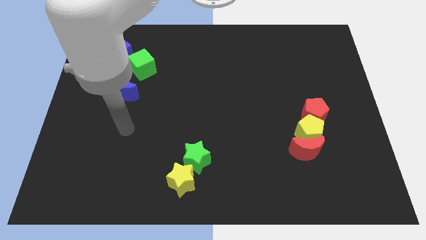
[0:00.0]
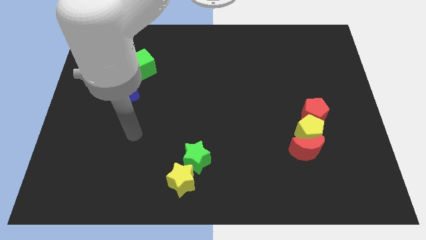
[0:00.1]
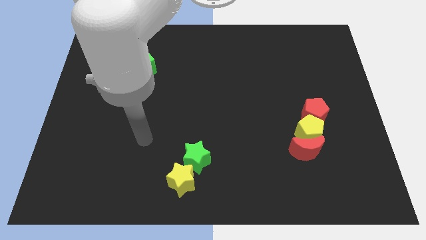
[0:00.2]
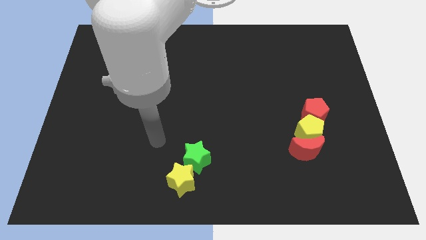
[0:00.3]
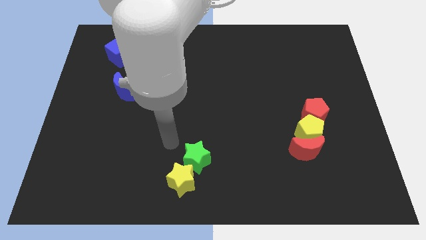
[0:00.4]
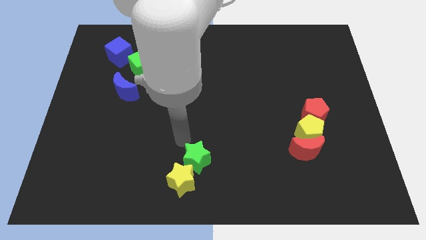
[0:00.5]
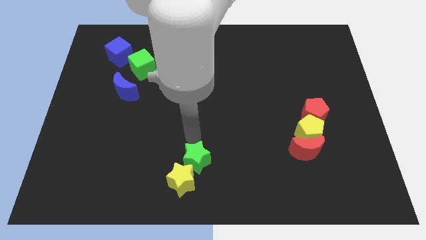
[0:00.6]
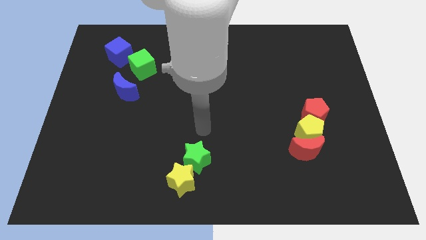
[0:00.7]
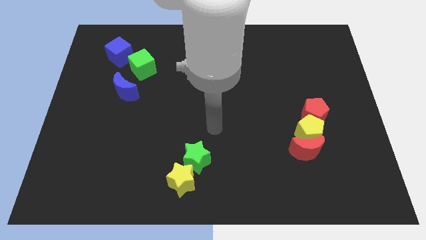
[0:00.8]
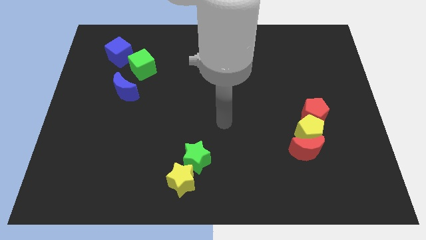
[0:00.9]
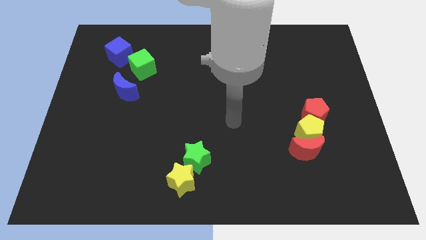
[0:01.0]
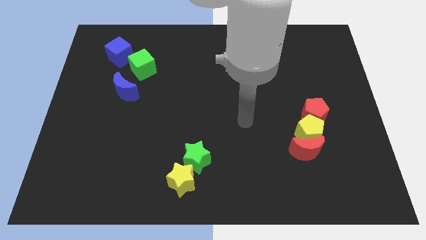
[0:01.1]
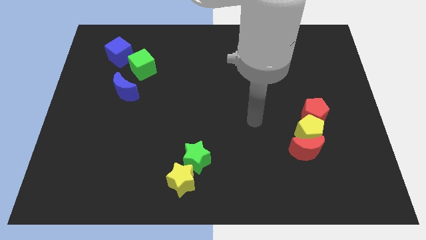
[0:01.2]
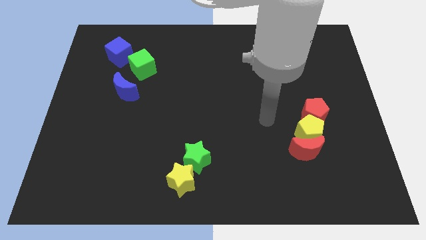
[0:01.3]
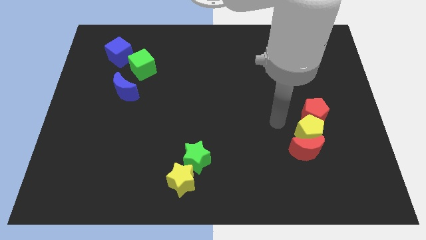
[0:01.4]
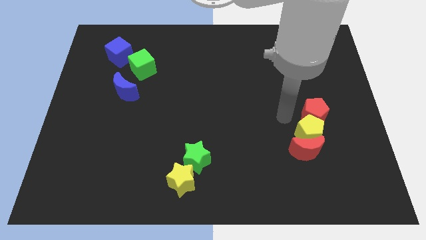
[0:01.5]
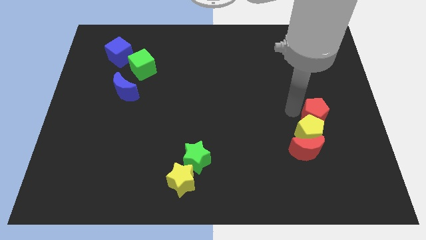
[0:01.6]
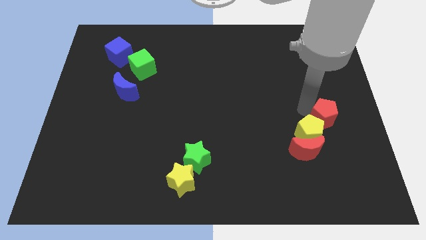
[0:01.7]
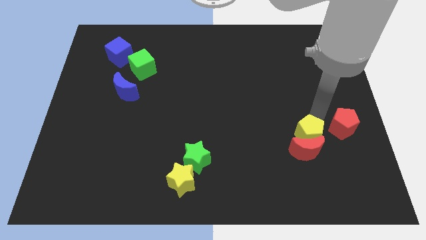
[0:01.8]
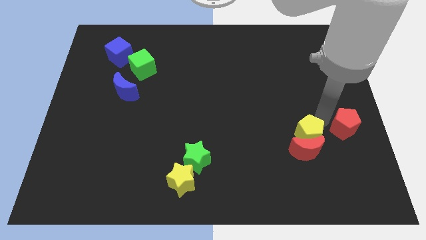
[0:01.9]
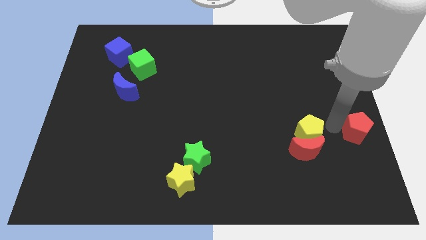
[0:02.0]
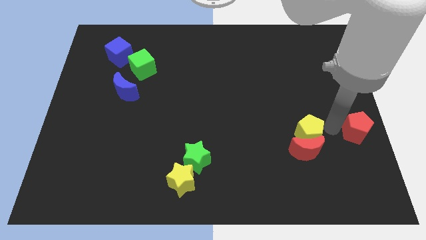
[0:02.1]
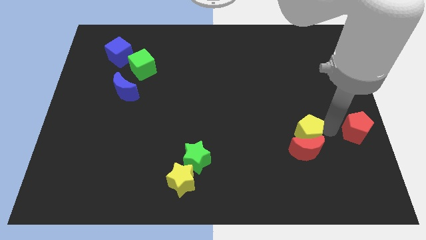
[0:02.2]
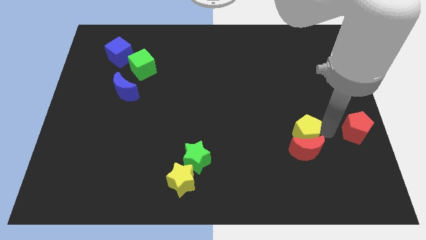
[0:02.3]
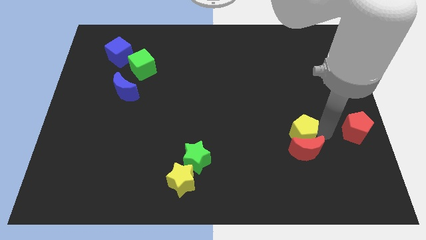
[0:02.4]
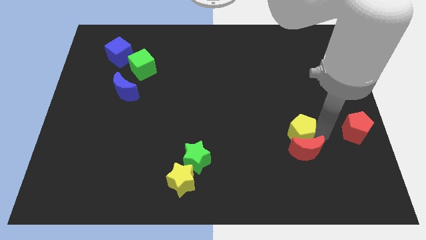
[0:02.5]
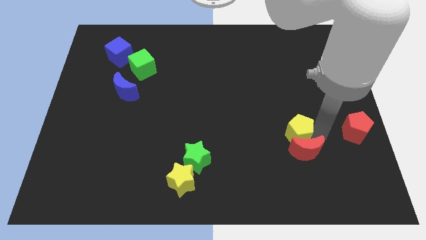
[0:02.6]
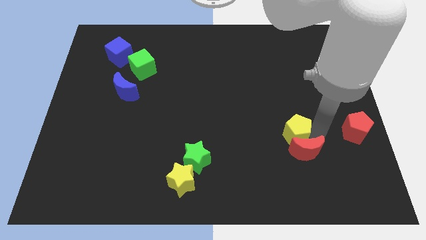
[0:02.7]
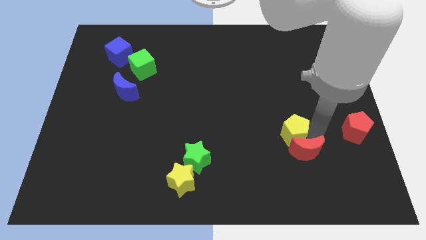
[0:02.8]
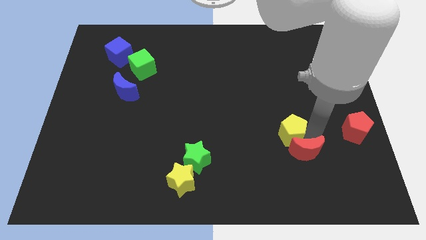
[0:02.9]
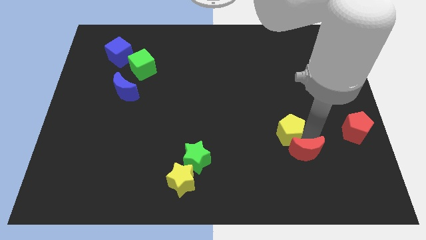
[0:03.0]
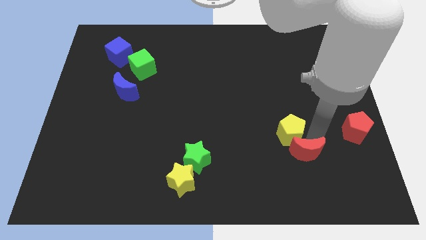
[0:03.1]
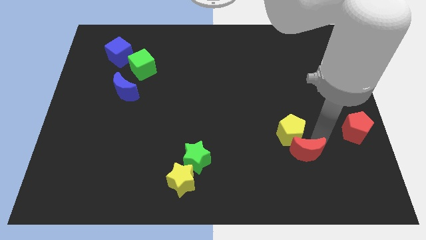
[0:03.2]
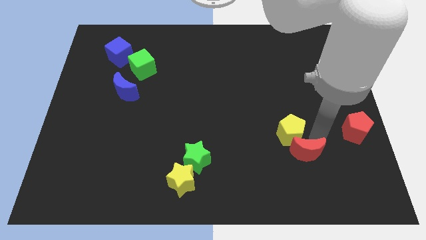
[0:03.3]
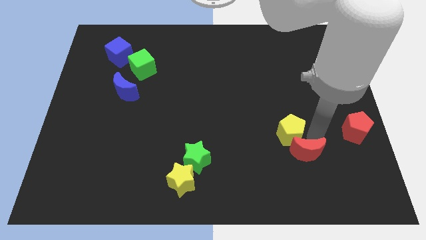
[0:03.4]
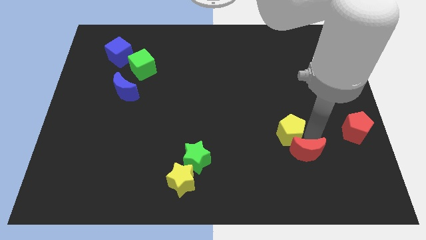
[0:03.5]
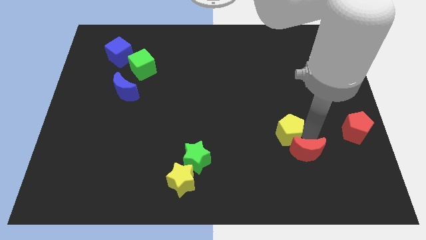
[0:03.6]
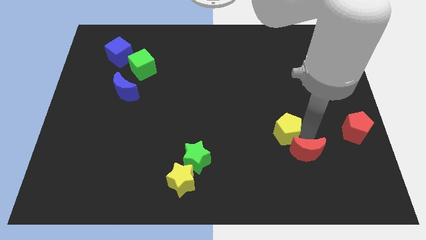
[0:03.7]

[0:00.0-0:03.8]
separate the yellow pentagon from the red moon and red pentagon

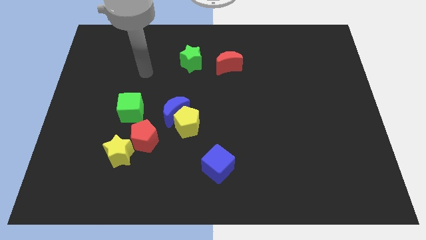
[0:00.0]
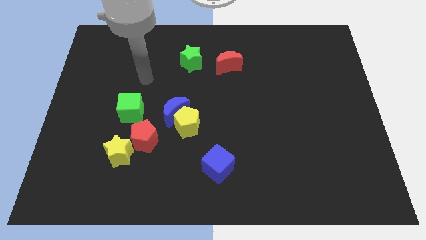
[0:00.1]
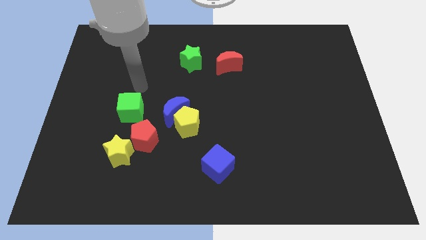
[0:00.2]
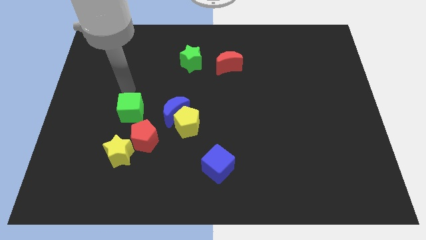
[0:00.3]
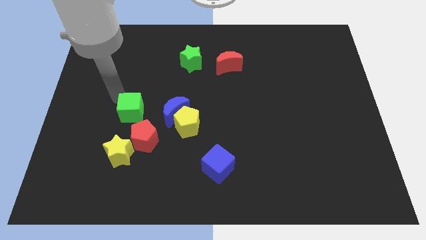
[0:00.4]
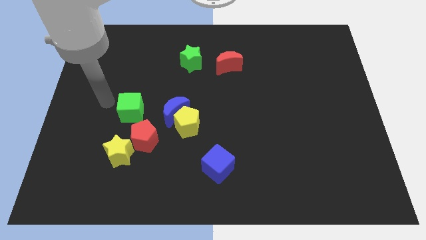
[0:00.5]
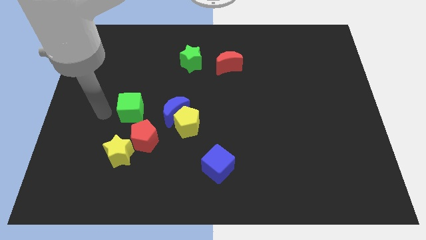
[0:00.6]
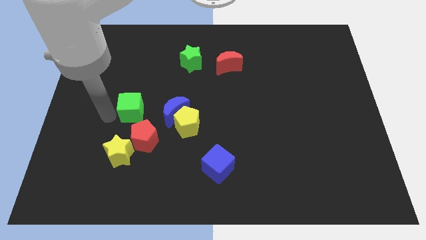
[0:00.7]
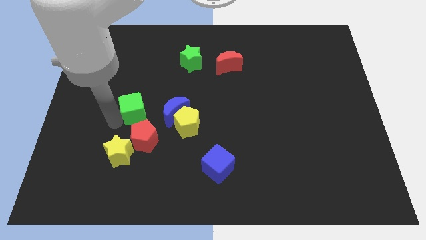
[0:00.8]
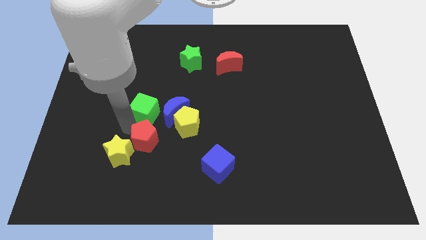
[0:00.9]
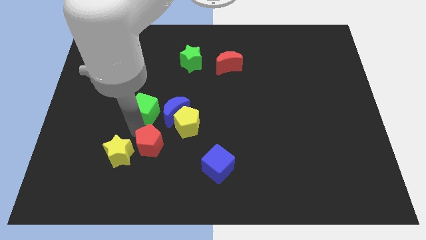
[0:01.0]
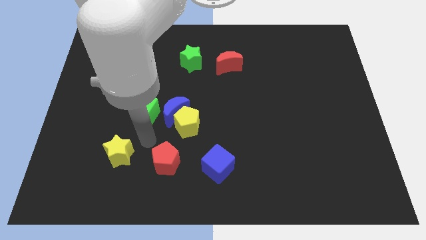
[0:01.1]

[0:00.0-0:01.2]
pull the yellow star apart from the red pentagon

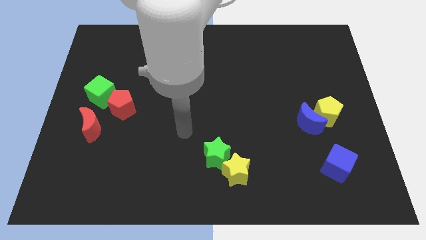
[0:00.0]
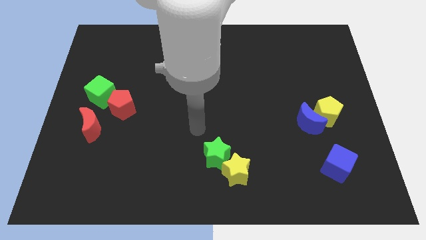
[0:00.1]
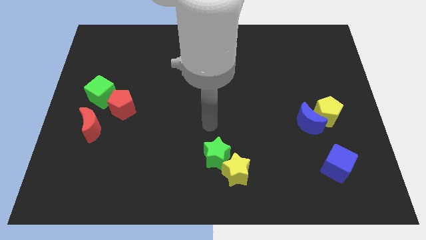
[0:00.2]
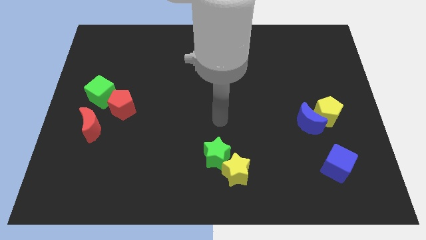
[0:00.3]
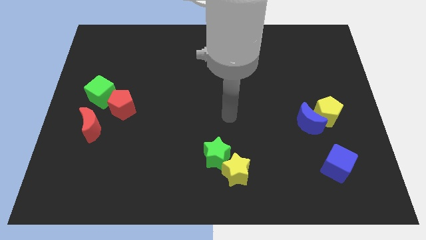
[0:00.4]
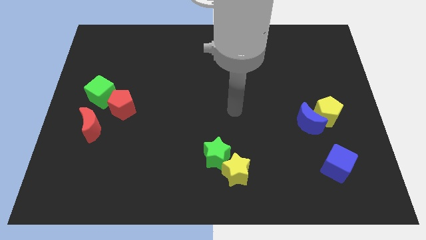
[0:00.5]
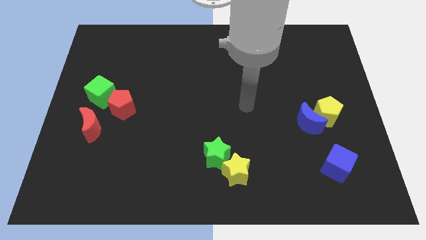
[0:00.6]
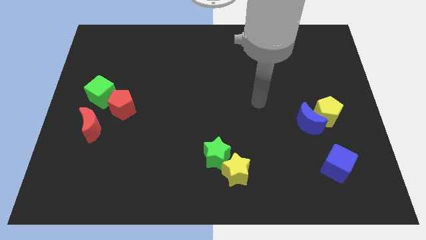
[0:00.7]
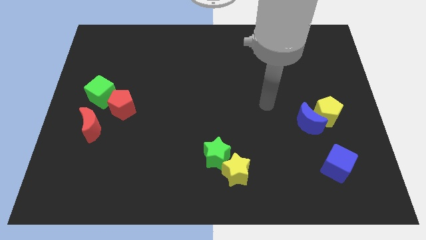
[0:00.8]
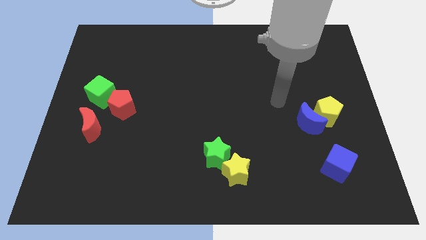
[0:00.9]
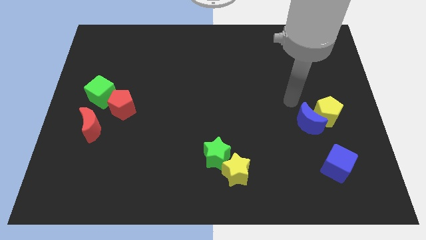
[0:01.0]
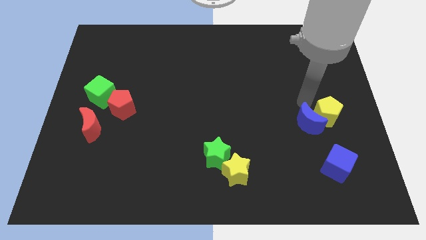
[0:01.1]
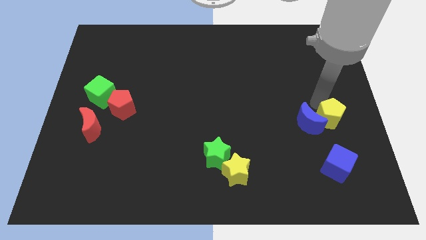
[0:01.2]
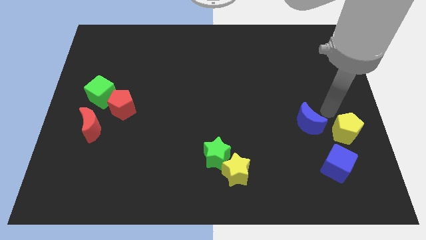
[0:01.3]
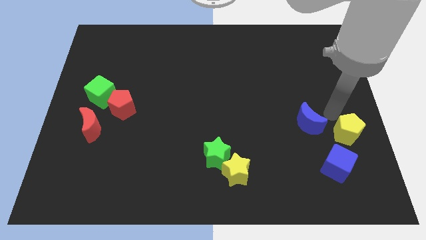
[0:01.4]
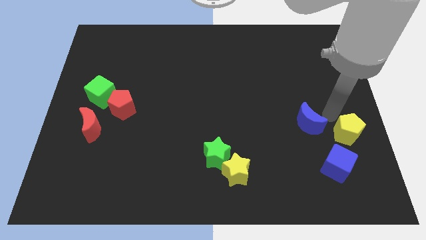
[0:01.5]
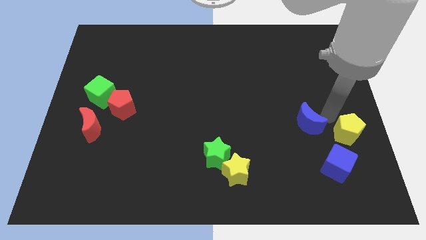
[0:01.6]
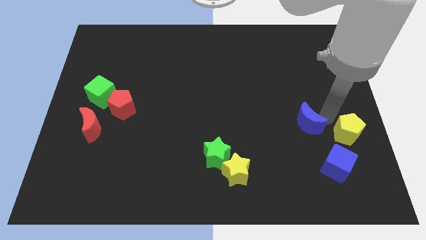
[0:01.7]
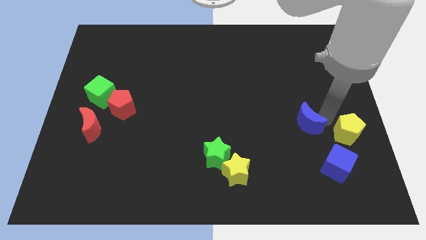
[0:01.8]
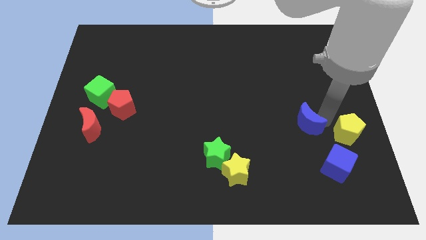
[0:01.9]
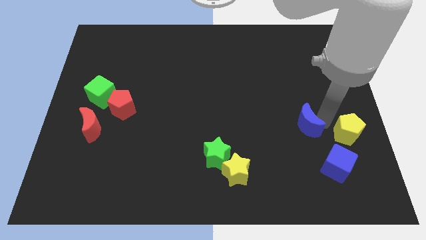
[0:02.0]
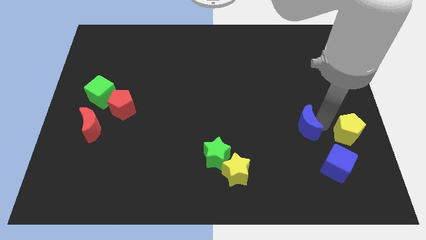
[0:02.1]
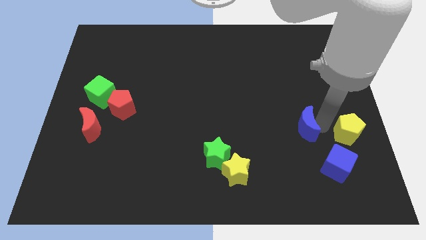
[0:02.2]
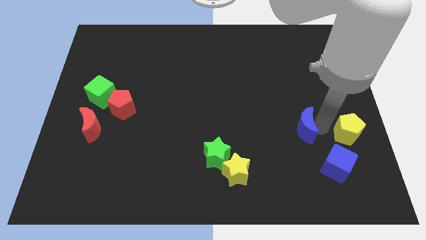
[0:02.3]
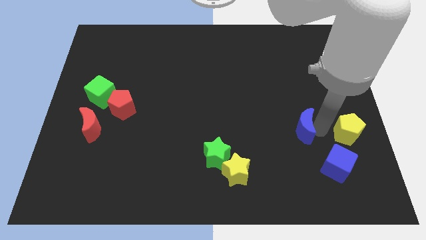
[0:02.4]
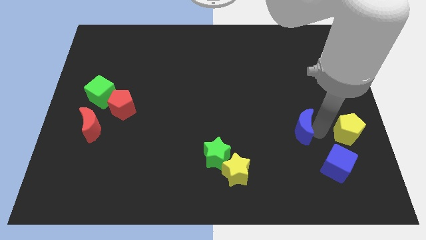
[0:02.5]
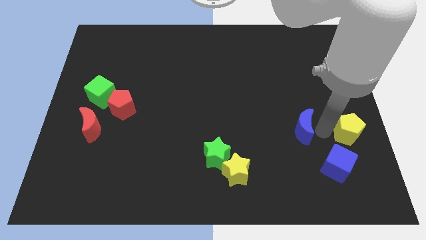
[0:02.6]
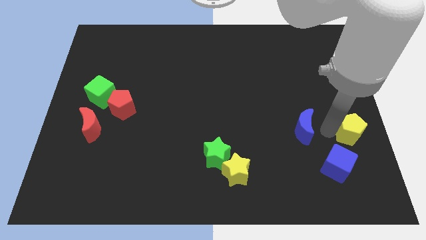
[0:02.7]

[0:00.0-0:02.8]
separate the blue moon from the yellow pentagon

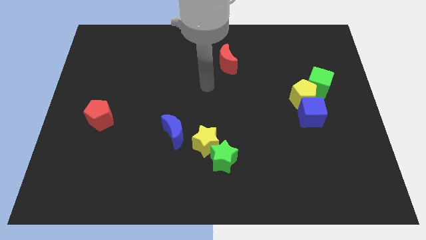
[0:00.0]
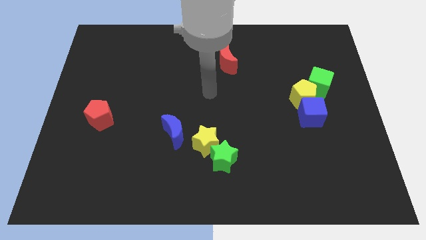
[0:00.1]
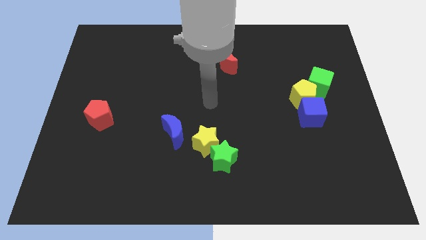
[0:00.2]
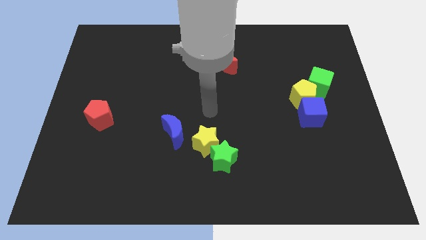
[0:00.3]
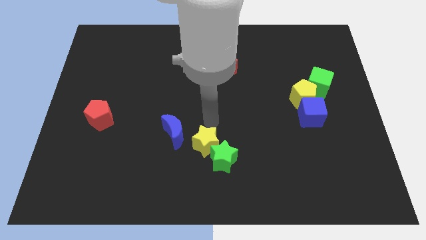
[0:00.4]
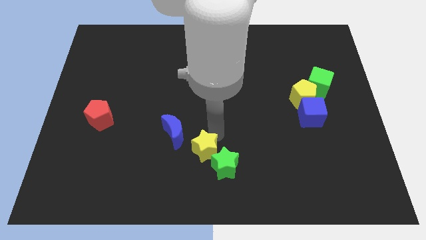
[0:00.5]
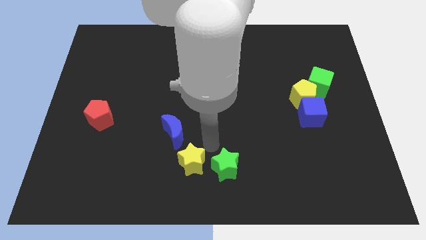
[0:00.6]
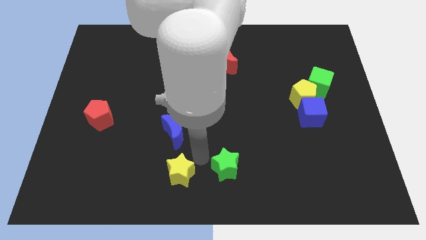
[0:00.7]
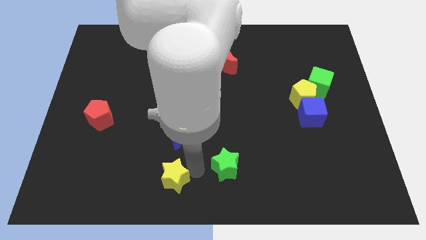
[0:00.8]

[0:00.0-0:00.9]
pull the green star apart from the yellow star

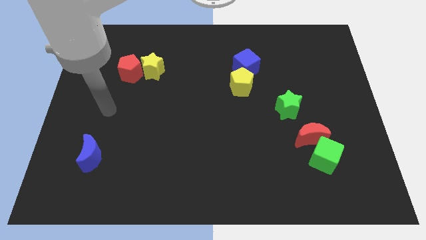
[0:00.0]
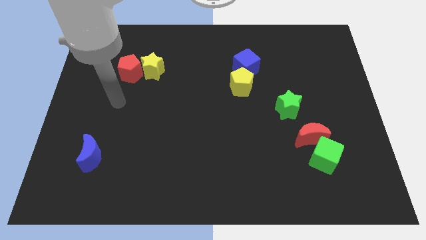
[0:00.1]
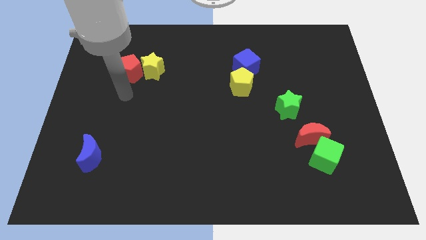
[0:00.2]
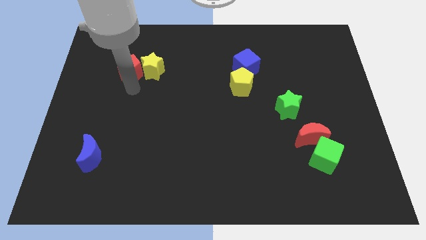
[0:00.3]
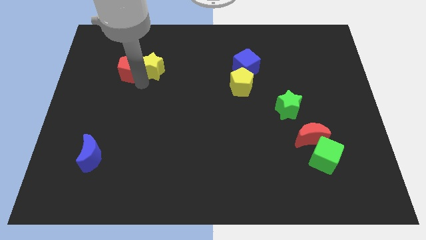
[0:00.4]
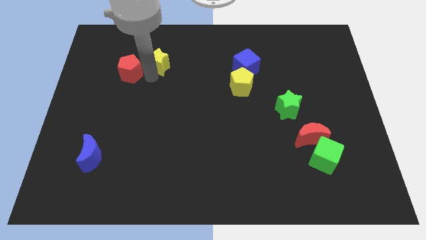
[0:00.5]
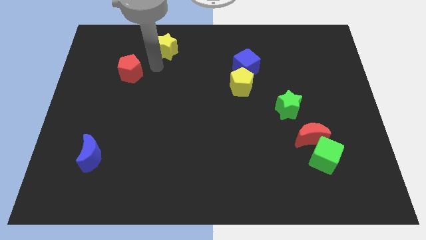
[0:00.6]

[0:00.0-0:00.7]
pull the red pentagon apart from the yellow star
